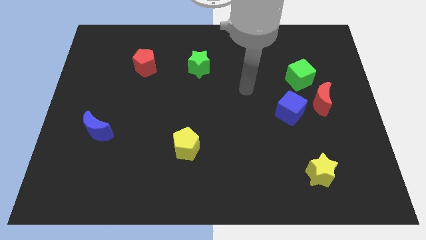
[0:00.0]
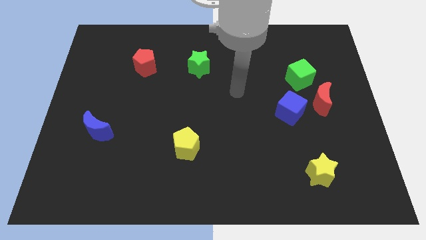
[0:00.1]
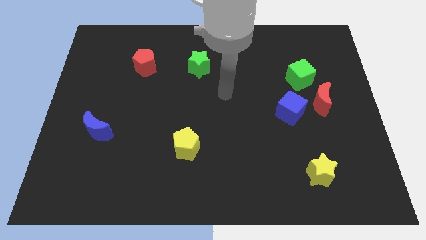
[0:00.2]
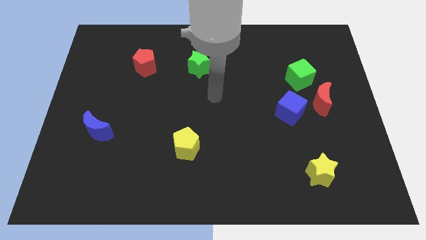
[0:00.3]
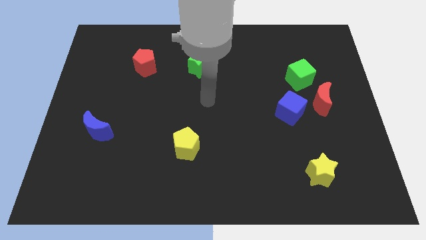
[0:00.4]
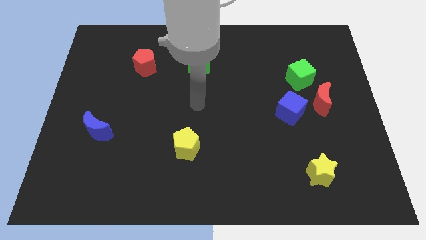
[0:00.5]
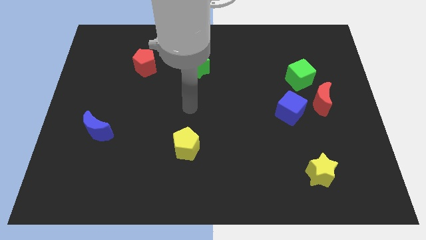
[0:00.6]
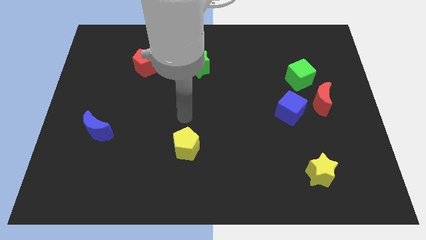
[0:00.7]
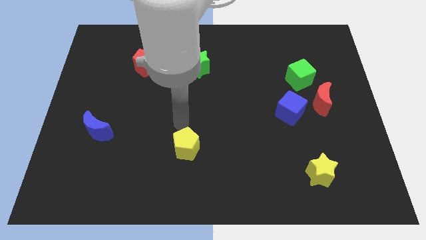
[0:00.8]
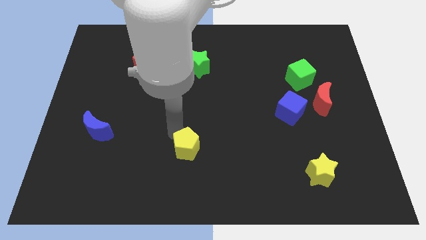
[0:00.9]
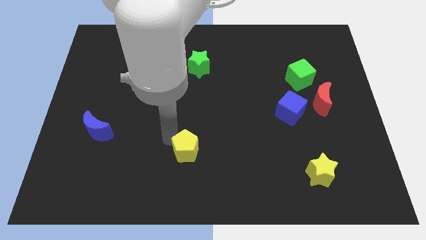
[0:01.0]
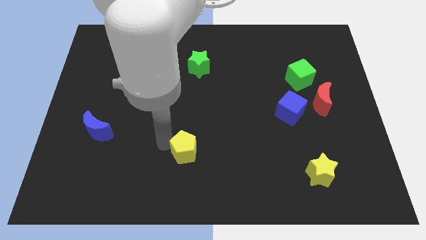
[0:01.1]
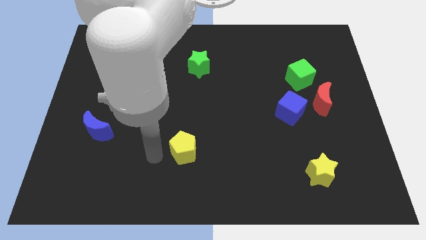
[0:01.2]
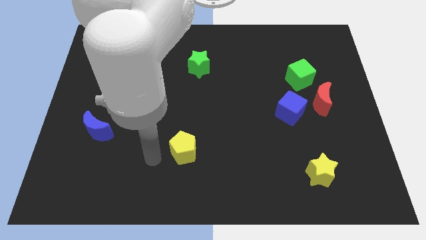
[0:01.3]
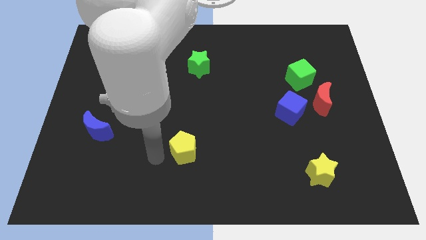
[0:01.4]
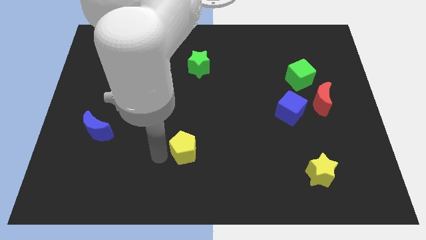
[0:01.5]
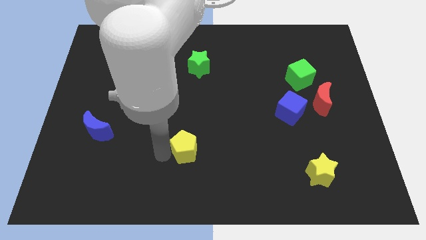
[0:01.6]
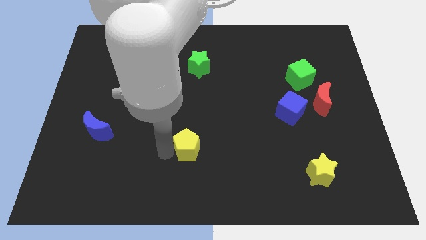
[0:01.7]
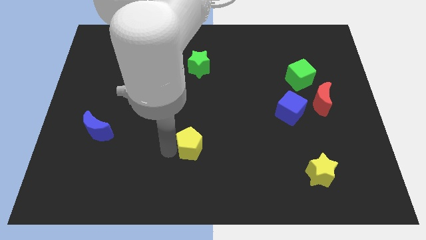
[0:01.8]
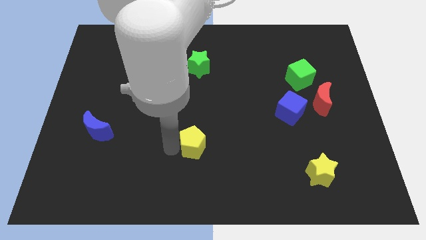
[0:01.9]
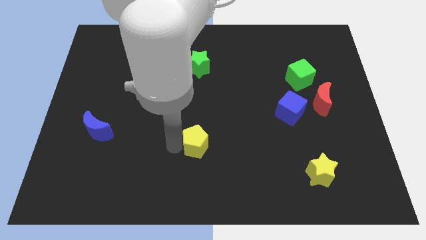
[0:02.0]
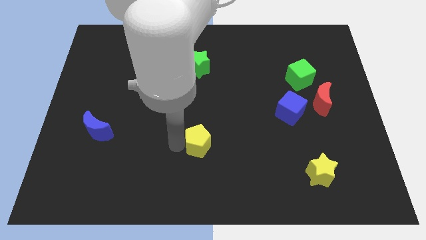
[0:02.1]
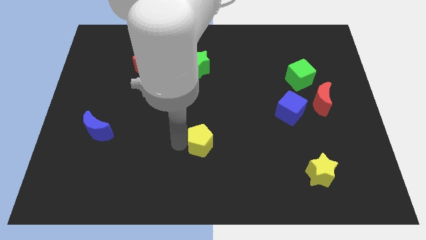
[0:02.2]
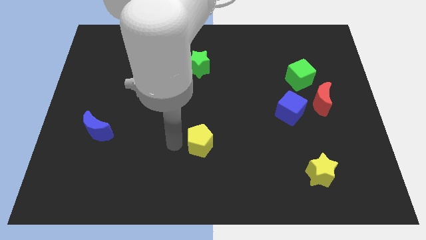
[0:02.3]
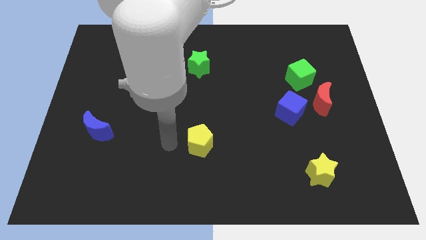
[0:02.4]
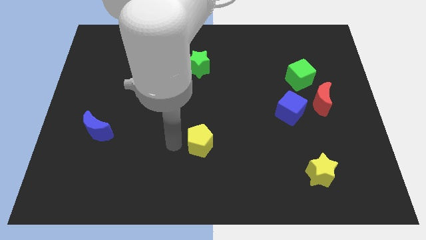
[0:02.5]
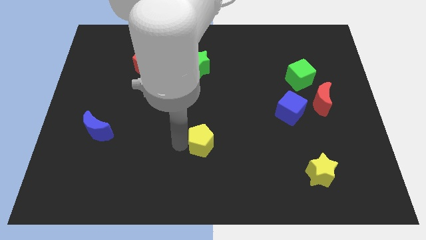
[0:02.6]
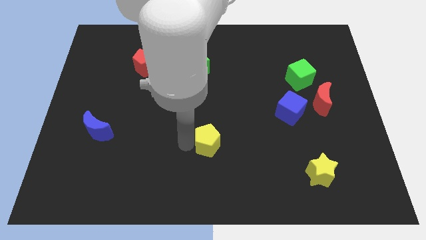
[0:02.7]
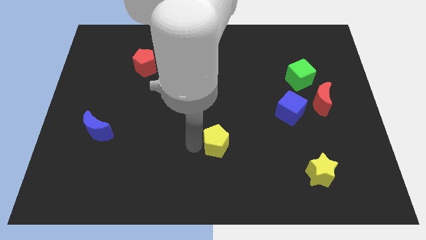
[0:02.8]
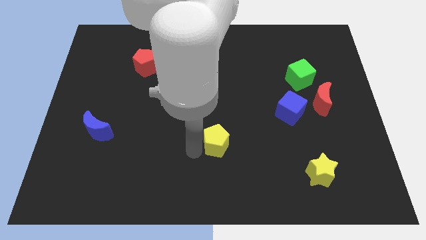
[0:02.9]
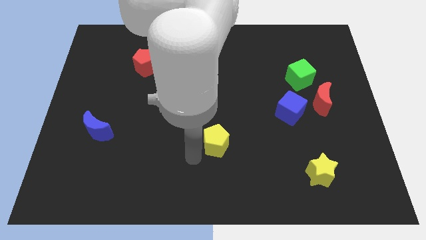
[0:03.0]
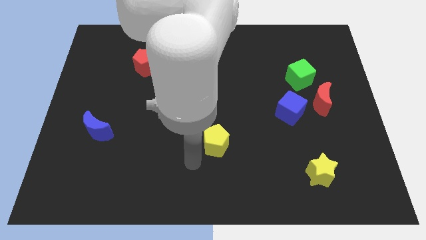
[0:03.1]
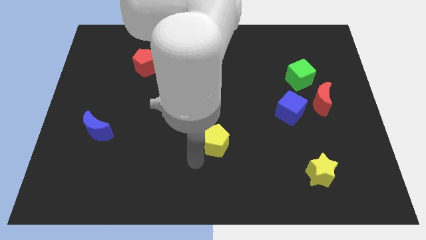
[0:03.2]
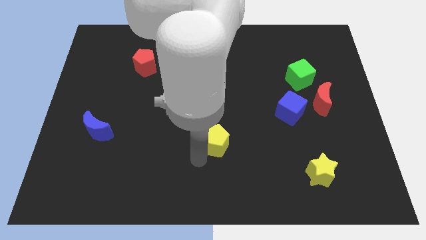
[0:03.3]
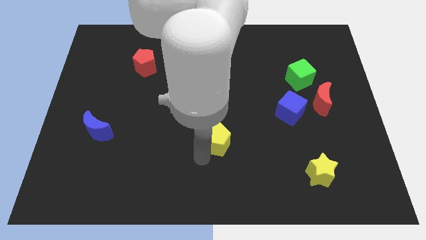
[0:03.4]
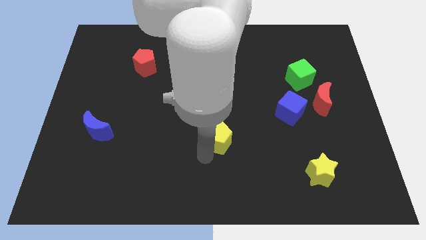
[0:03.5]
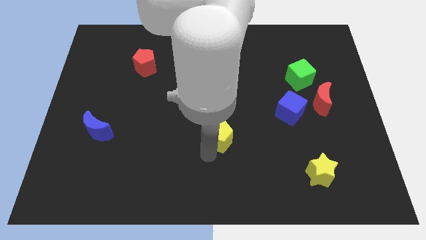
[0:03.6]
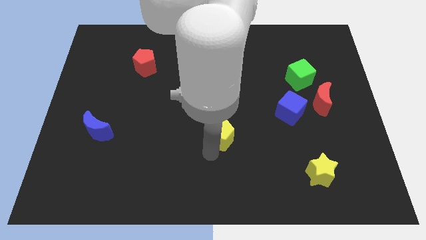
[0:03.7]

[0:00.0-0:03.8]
slightly move the yellow pentagon up and right
